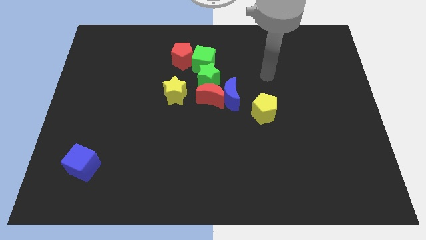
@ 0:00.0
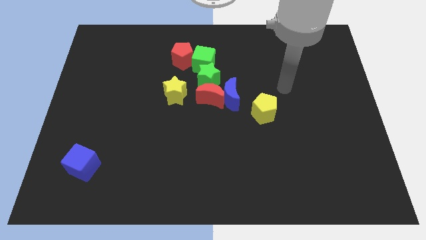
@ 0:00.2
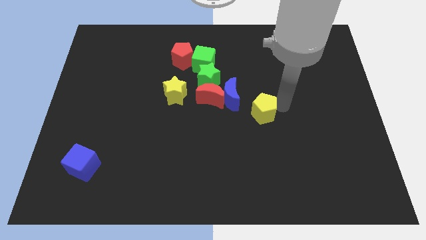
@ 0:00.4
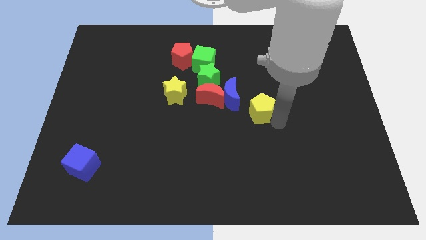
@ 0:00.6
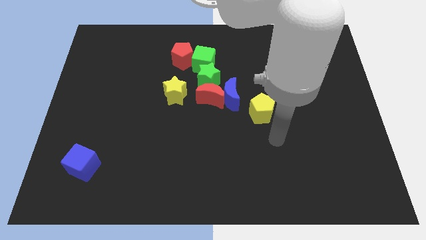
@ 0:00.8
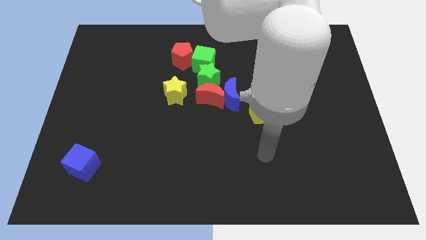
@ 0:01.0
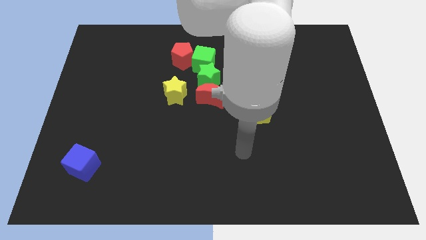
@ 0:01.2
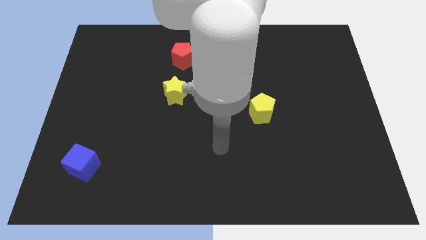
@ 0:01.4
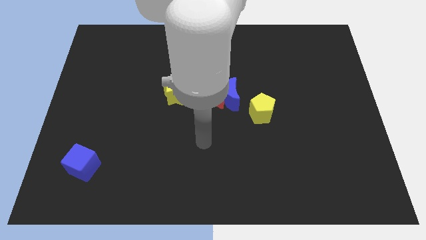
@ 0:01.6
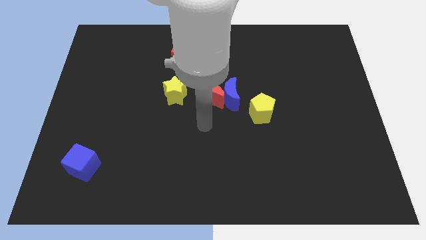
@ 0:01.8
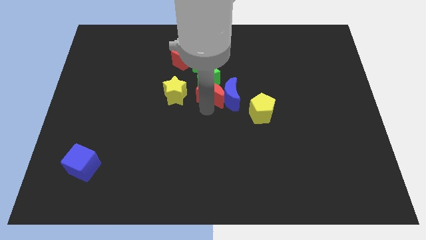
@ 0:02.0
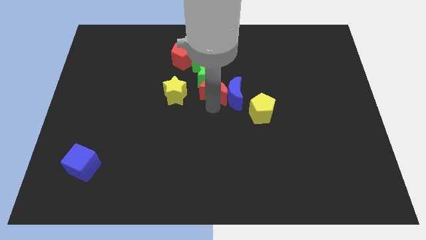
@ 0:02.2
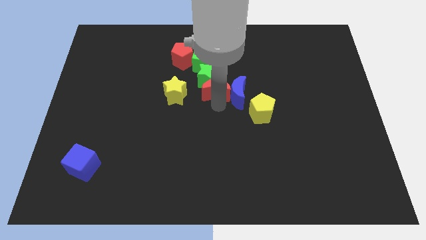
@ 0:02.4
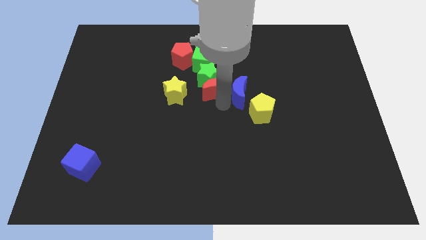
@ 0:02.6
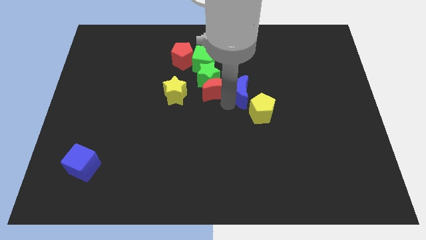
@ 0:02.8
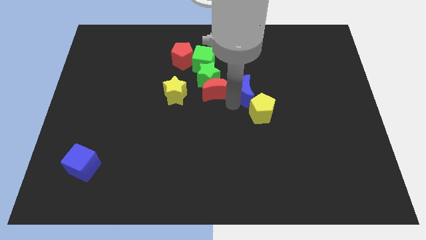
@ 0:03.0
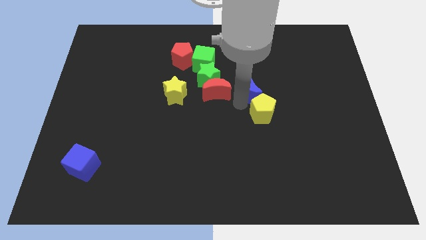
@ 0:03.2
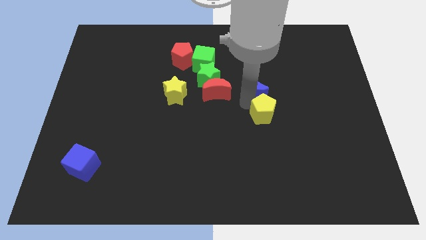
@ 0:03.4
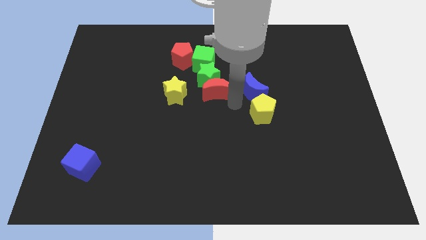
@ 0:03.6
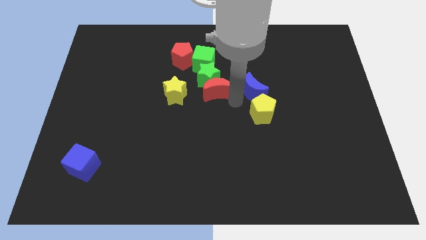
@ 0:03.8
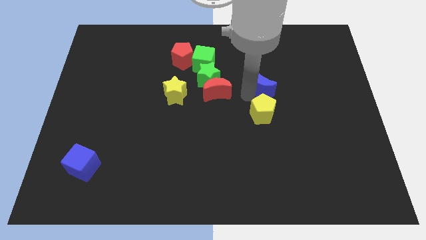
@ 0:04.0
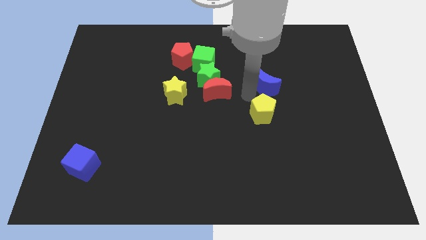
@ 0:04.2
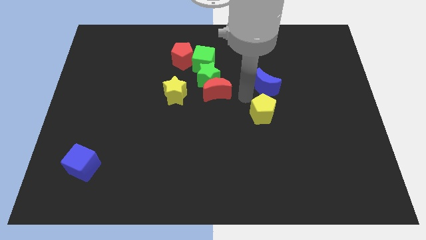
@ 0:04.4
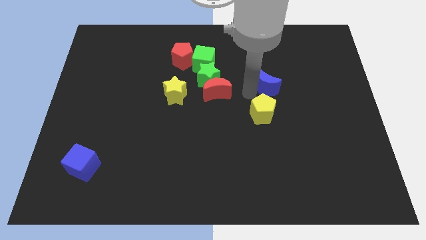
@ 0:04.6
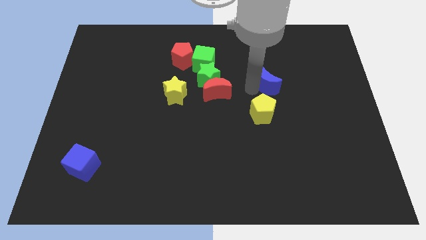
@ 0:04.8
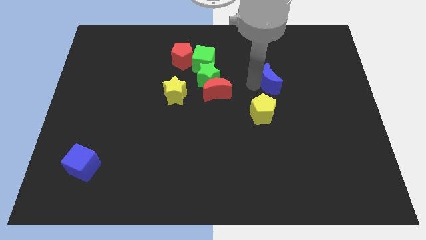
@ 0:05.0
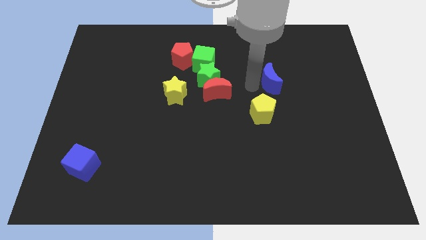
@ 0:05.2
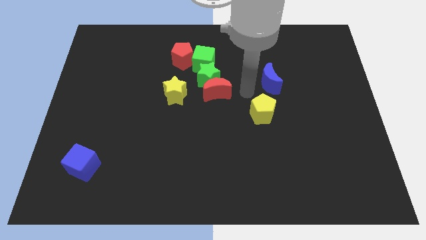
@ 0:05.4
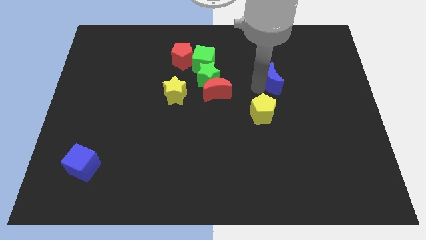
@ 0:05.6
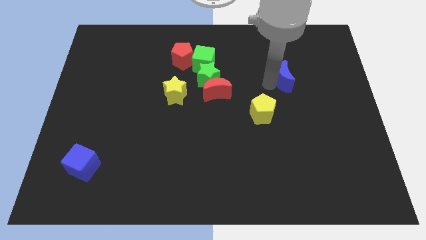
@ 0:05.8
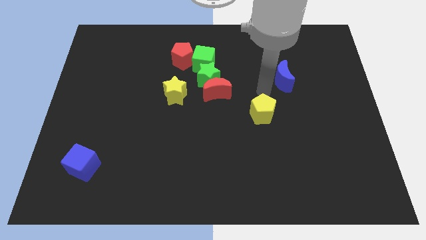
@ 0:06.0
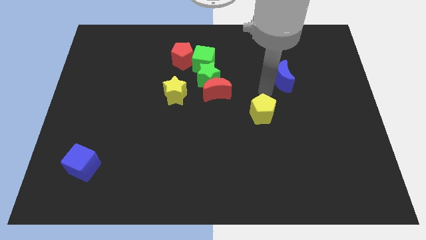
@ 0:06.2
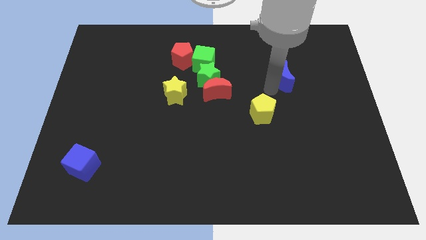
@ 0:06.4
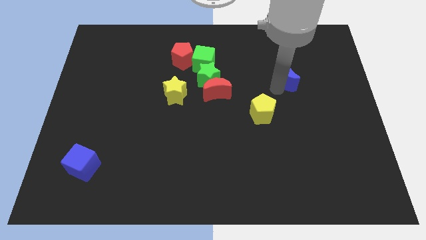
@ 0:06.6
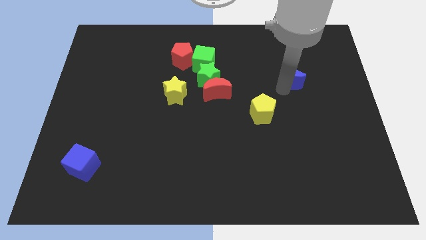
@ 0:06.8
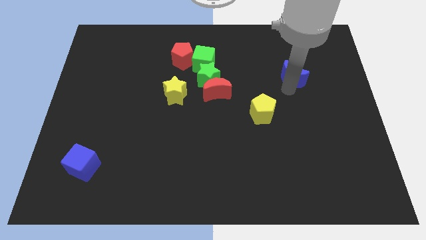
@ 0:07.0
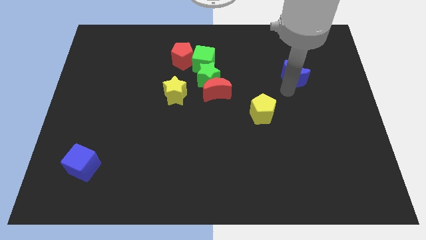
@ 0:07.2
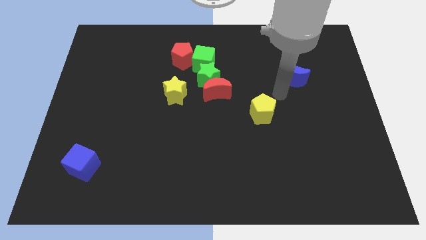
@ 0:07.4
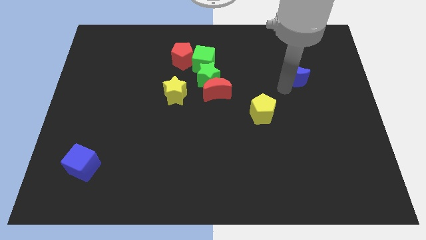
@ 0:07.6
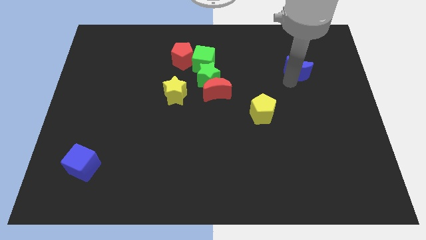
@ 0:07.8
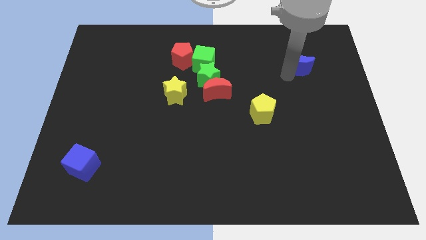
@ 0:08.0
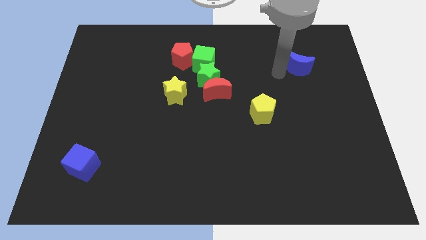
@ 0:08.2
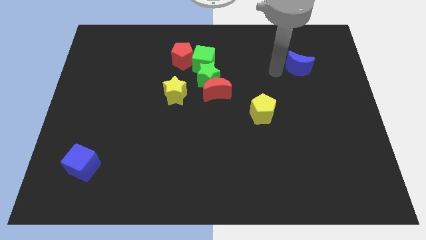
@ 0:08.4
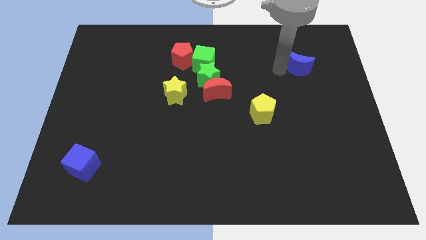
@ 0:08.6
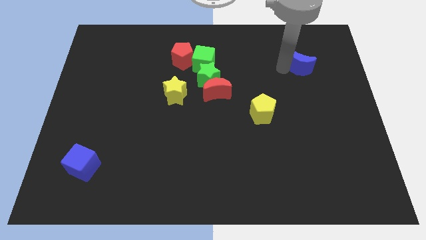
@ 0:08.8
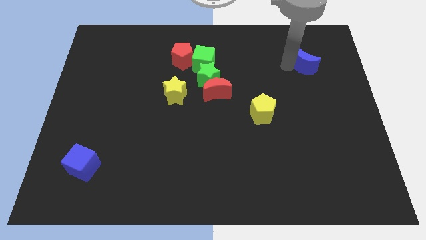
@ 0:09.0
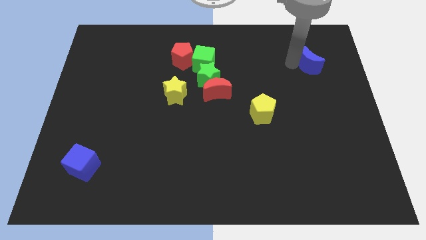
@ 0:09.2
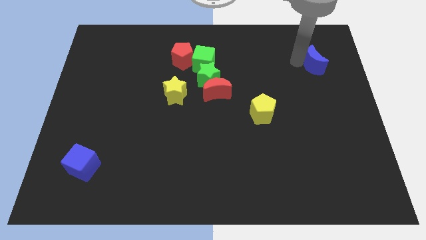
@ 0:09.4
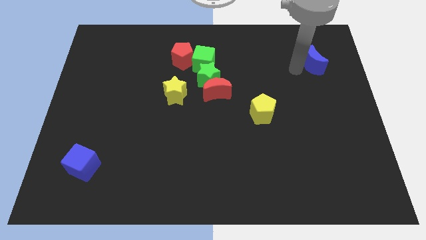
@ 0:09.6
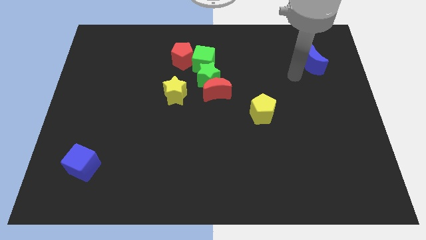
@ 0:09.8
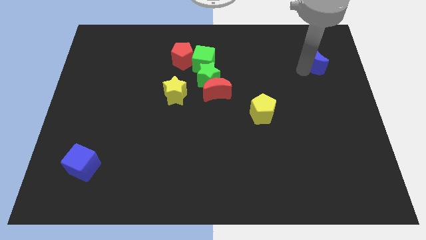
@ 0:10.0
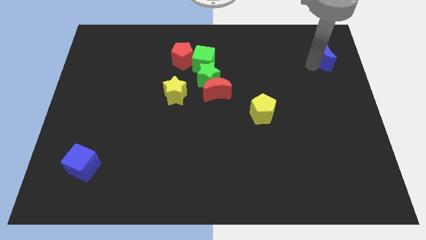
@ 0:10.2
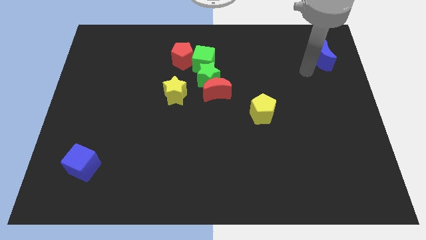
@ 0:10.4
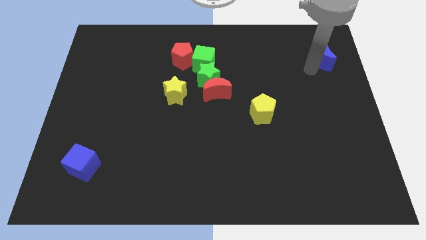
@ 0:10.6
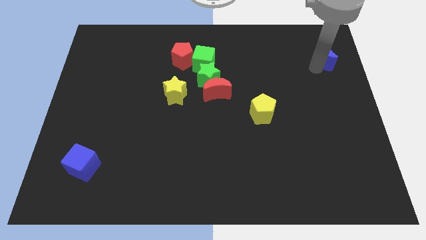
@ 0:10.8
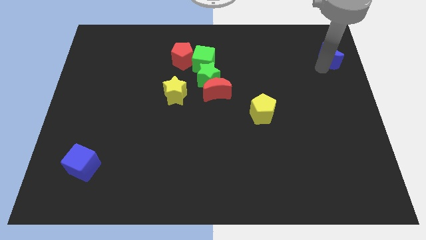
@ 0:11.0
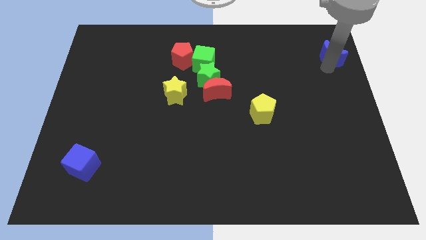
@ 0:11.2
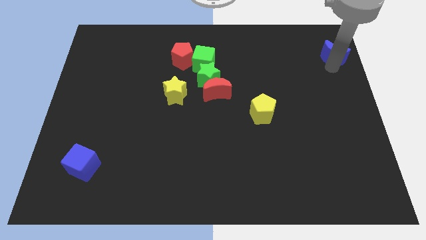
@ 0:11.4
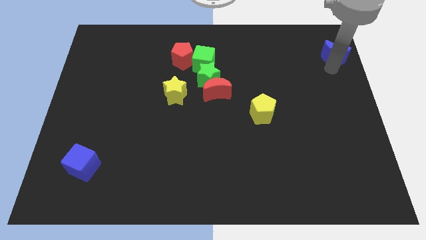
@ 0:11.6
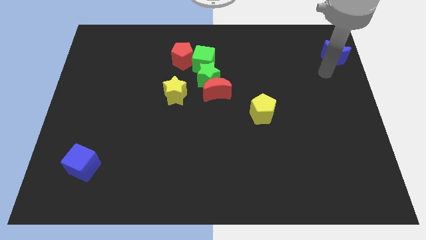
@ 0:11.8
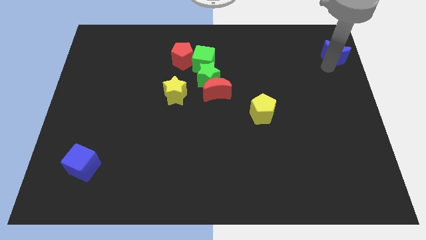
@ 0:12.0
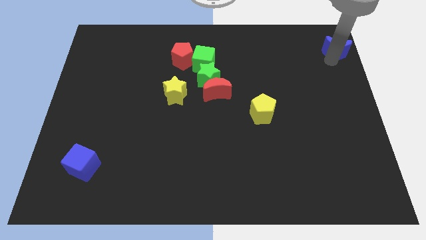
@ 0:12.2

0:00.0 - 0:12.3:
move the blue moon to the top right corner
